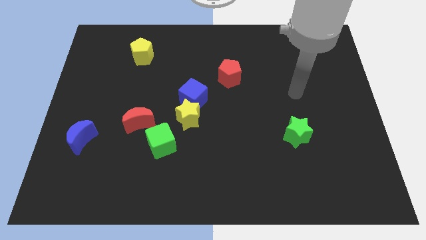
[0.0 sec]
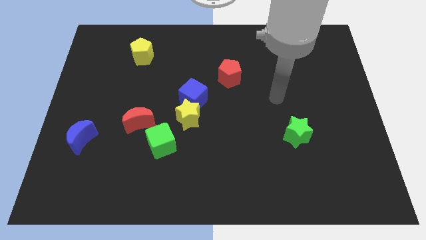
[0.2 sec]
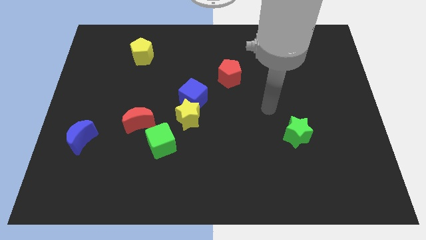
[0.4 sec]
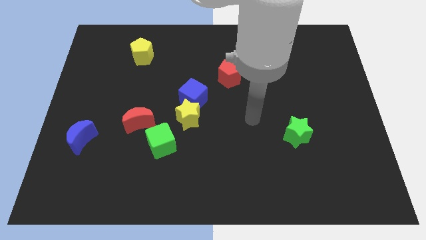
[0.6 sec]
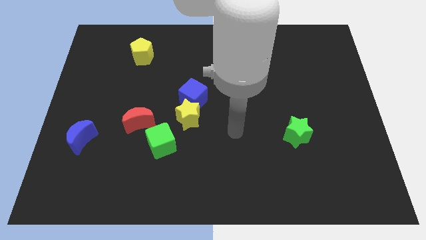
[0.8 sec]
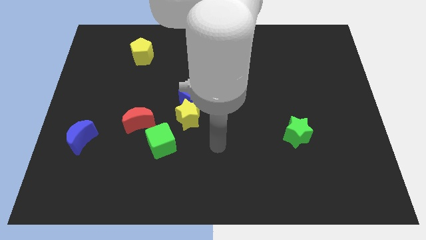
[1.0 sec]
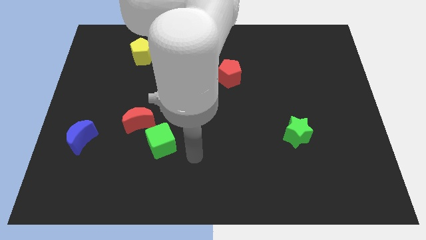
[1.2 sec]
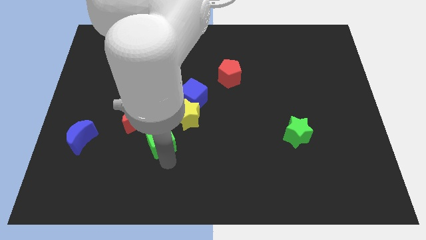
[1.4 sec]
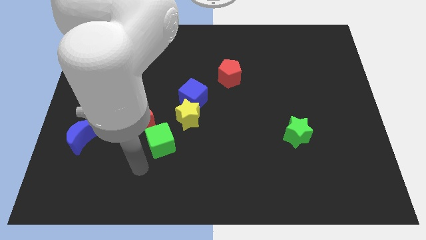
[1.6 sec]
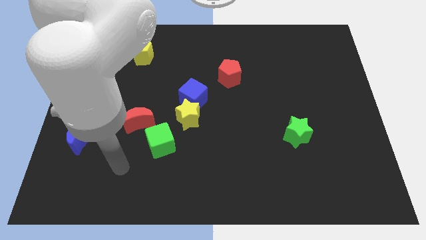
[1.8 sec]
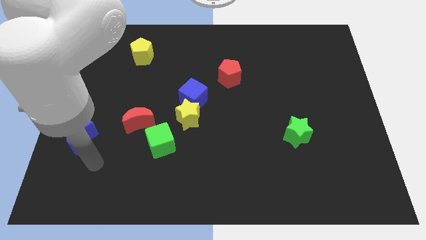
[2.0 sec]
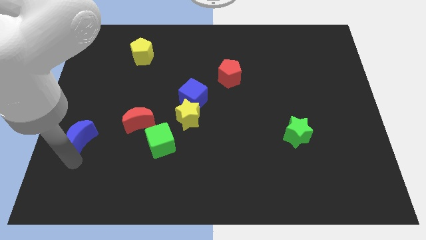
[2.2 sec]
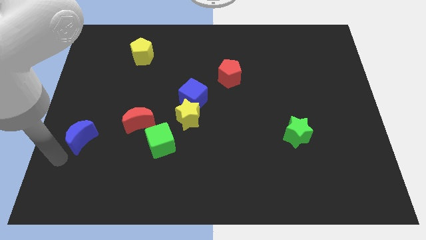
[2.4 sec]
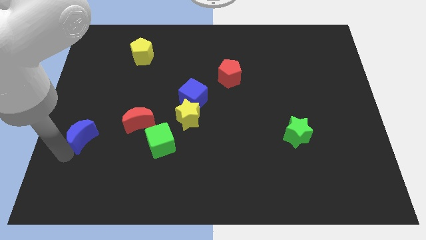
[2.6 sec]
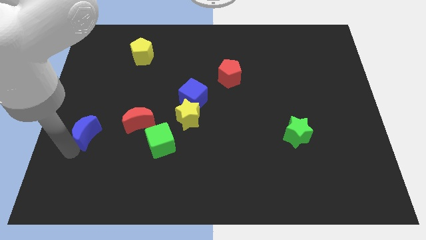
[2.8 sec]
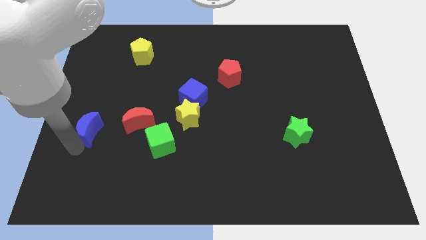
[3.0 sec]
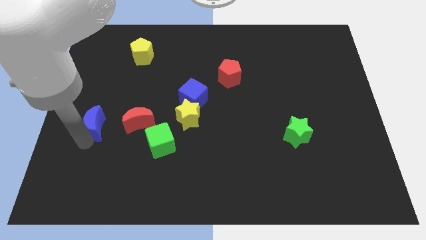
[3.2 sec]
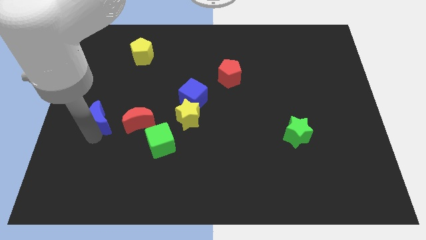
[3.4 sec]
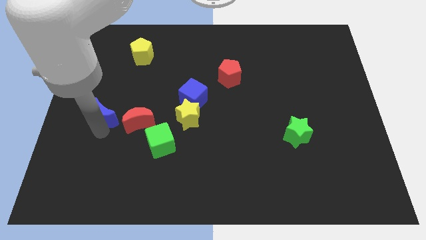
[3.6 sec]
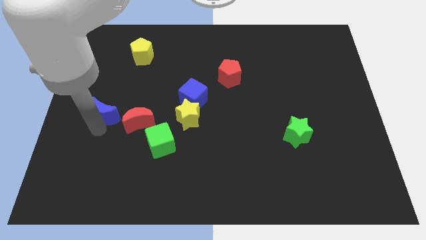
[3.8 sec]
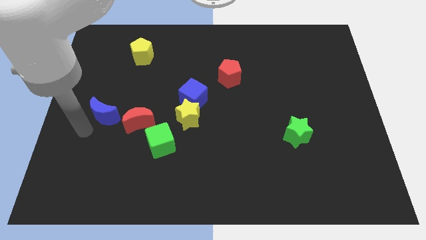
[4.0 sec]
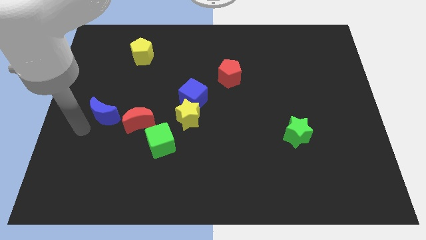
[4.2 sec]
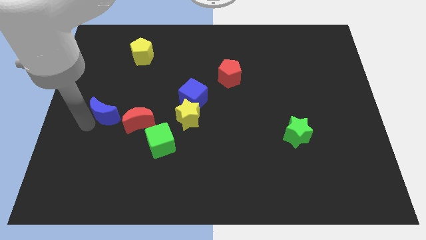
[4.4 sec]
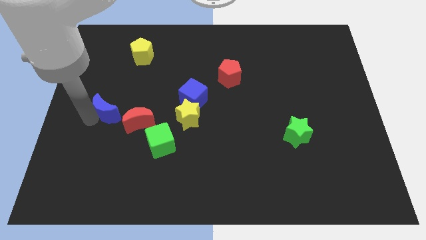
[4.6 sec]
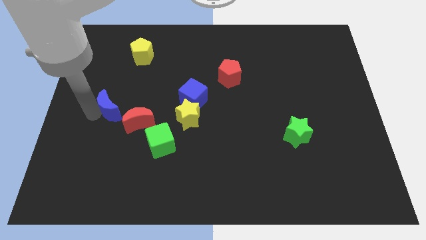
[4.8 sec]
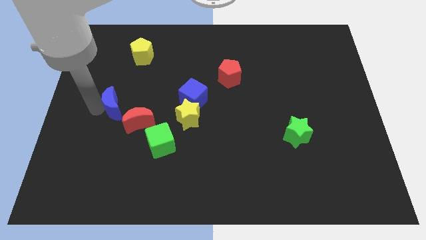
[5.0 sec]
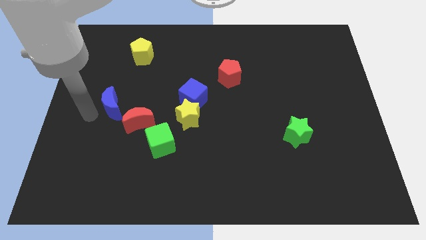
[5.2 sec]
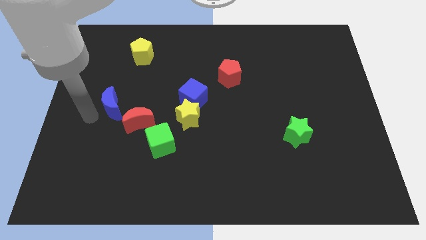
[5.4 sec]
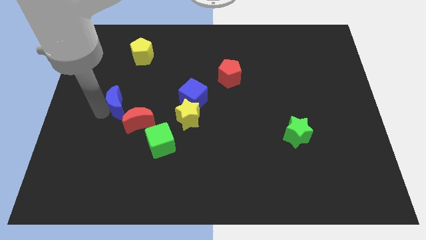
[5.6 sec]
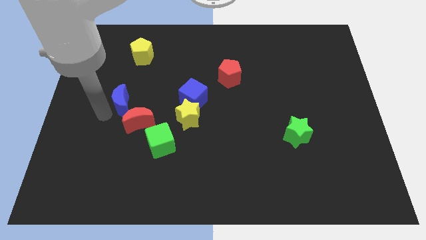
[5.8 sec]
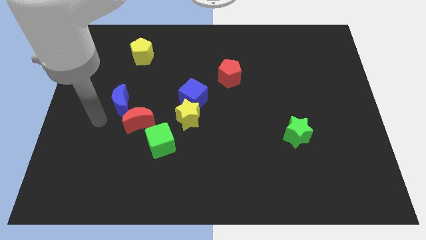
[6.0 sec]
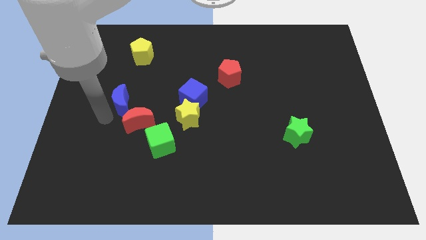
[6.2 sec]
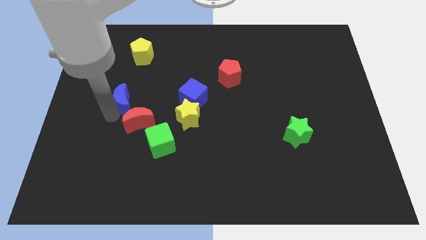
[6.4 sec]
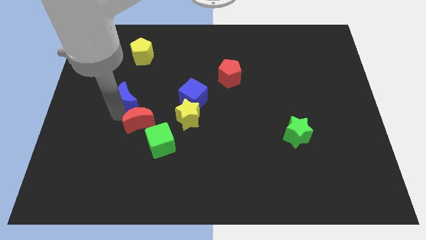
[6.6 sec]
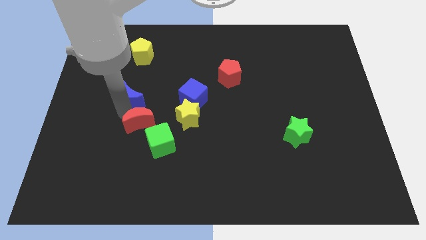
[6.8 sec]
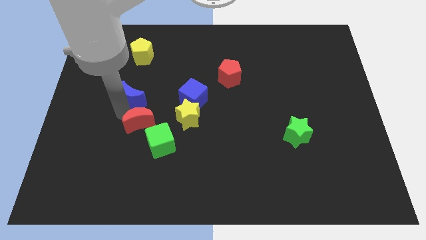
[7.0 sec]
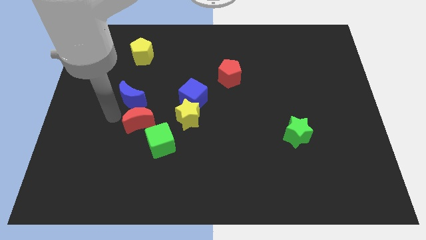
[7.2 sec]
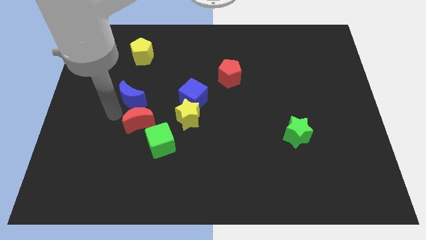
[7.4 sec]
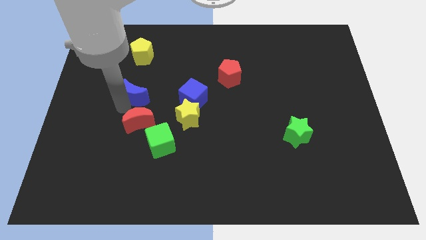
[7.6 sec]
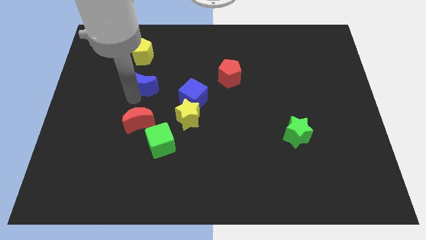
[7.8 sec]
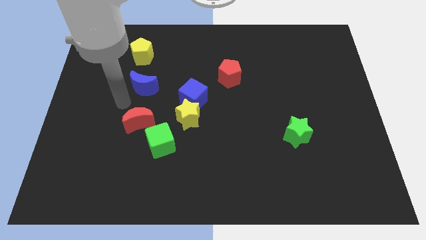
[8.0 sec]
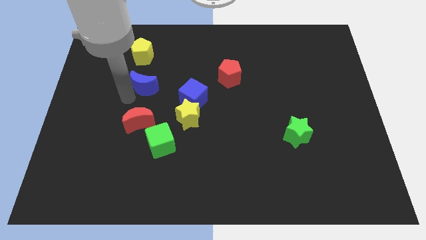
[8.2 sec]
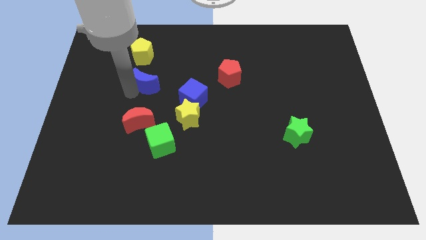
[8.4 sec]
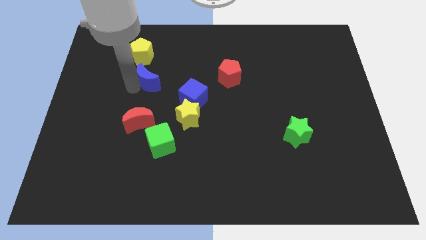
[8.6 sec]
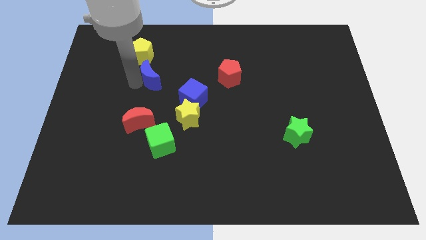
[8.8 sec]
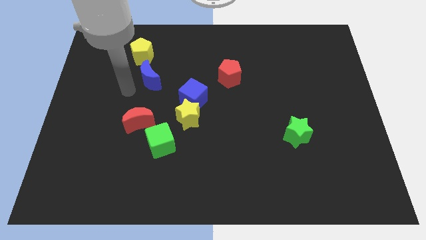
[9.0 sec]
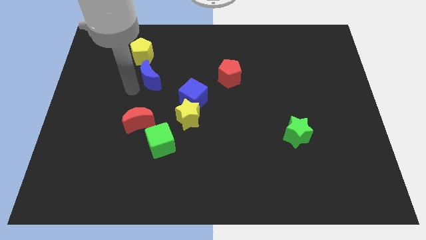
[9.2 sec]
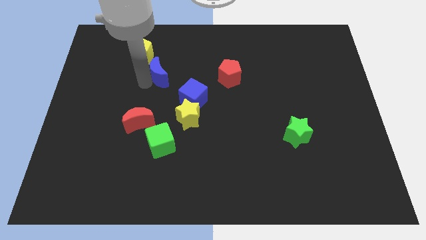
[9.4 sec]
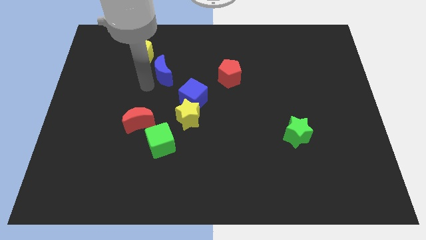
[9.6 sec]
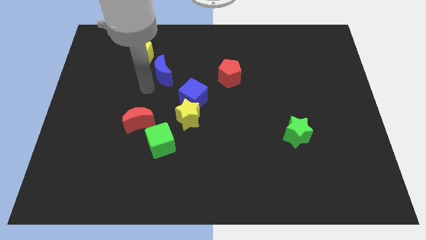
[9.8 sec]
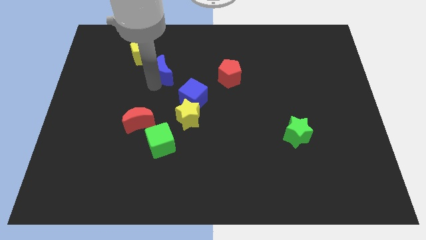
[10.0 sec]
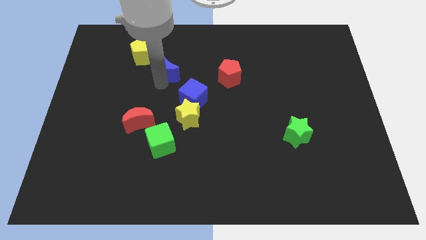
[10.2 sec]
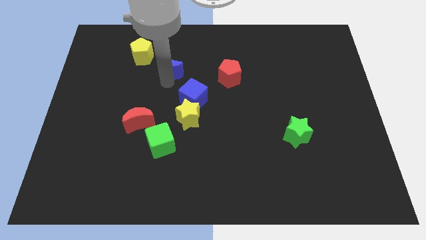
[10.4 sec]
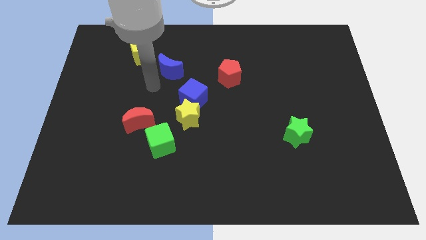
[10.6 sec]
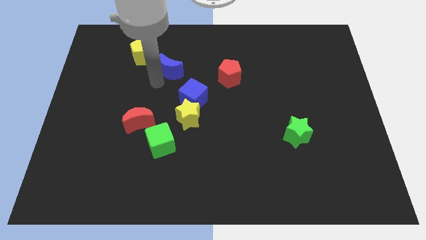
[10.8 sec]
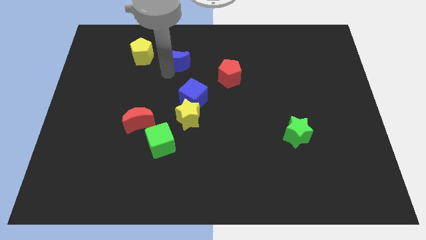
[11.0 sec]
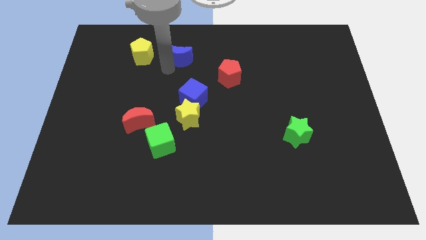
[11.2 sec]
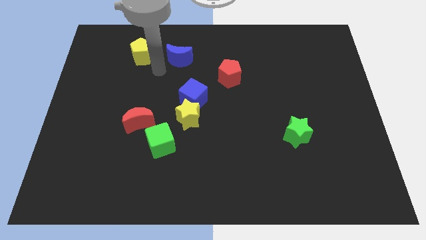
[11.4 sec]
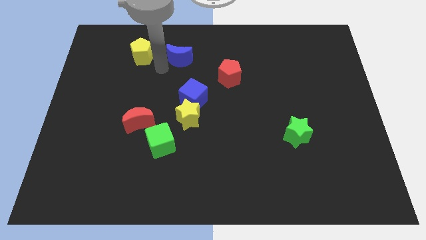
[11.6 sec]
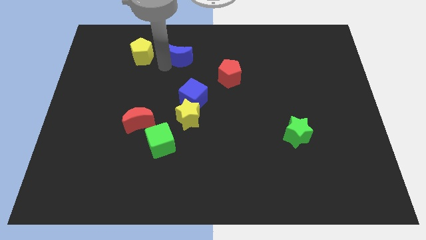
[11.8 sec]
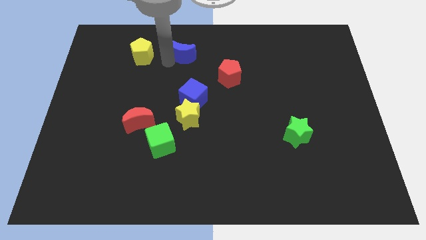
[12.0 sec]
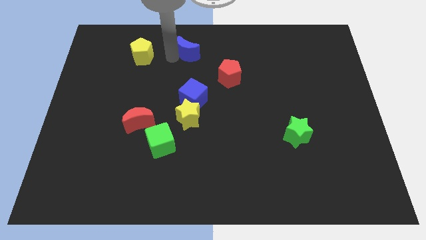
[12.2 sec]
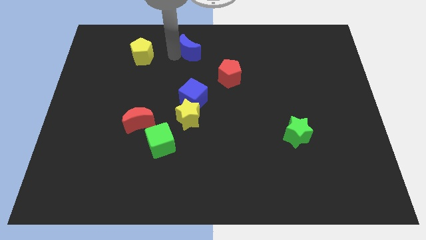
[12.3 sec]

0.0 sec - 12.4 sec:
move the blue moon to the top
